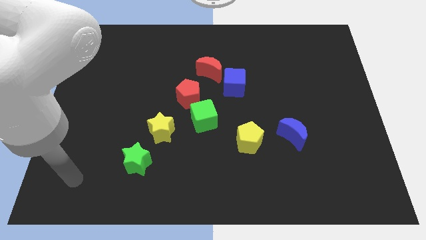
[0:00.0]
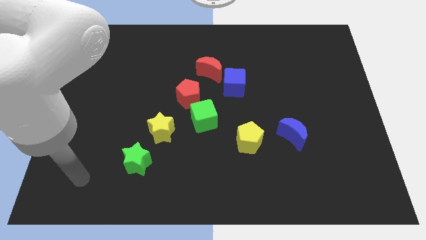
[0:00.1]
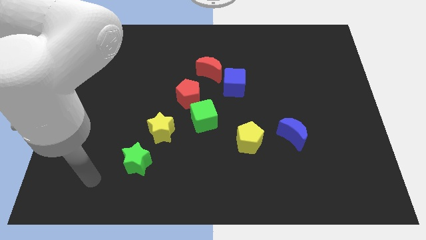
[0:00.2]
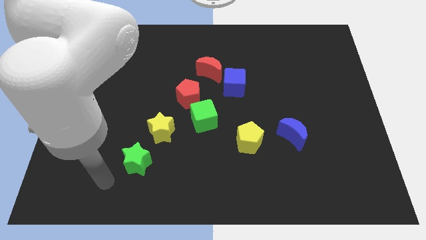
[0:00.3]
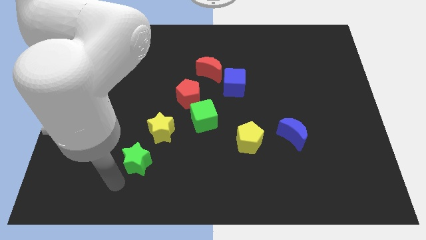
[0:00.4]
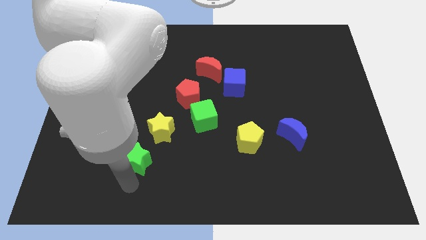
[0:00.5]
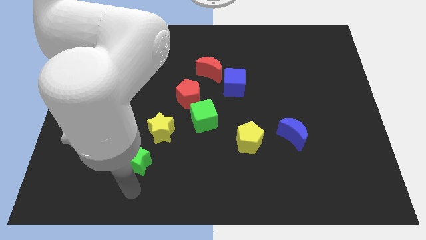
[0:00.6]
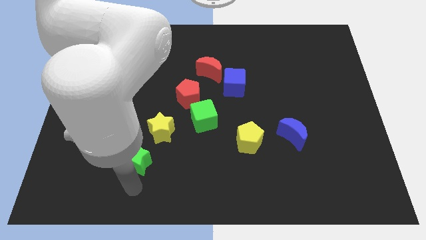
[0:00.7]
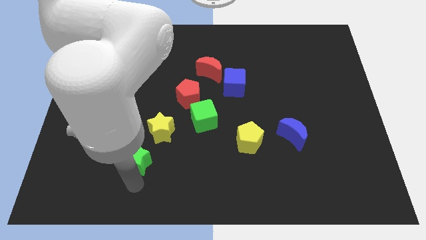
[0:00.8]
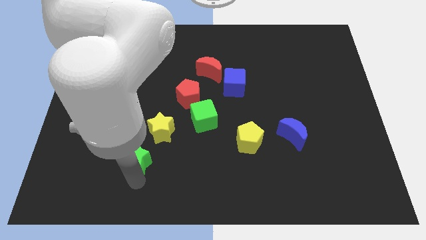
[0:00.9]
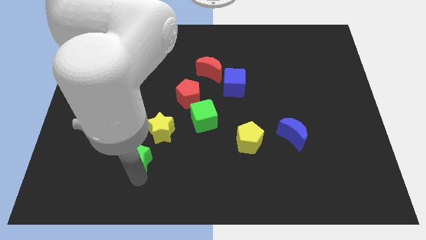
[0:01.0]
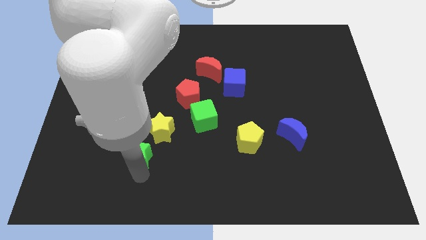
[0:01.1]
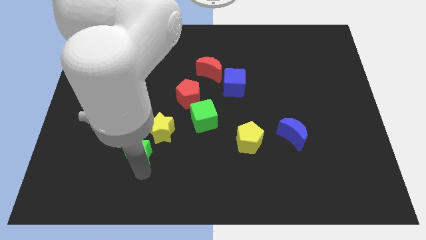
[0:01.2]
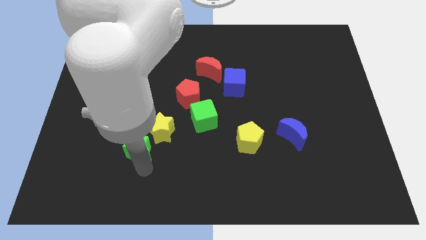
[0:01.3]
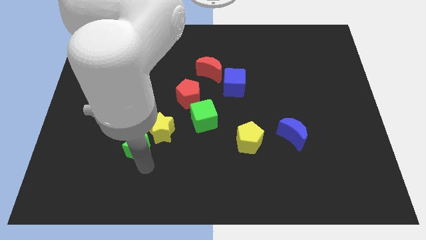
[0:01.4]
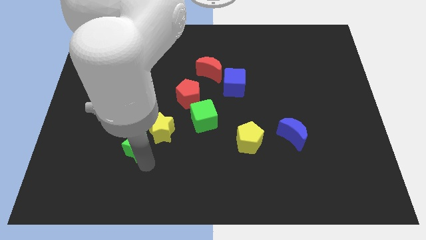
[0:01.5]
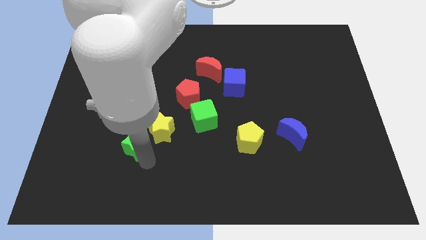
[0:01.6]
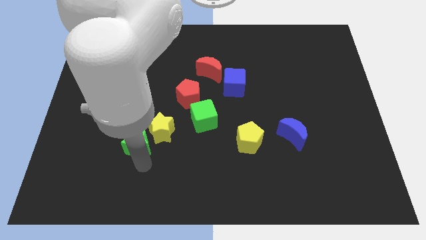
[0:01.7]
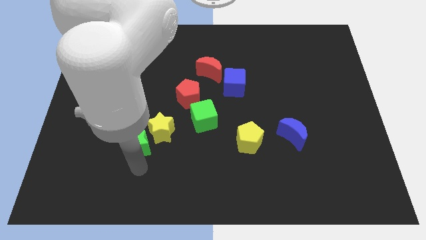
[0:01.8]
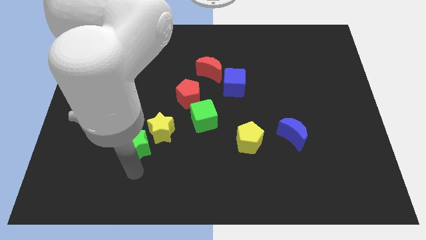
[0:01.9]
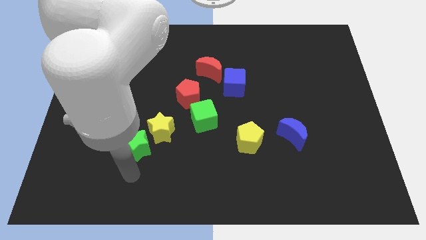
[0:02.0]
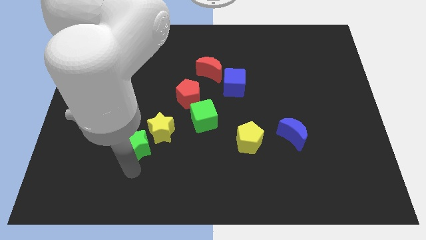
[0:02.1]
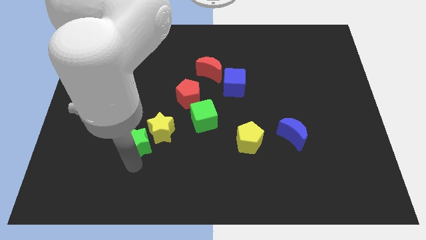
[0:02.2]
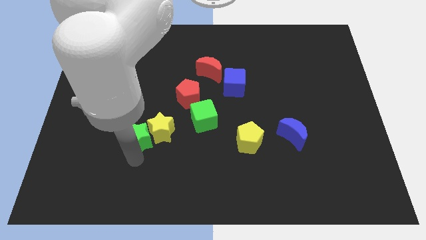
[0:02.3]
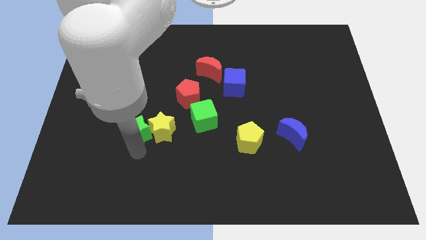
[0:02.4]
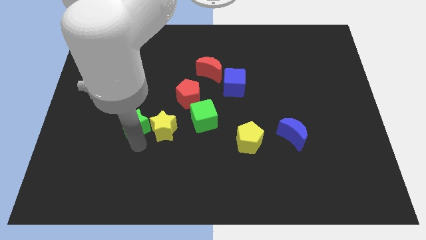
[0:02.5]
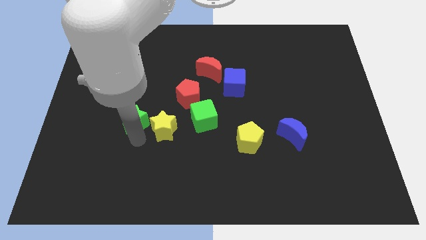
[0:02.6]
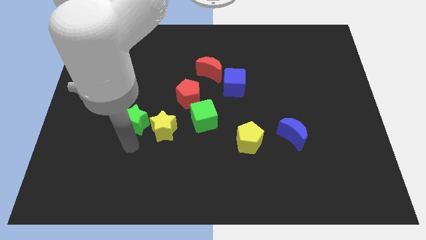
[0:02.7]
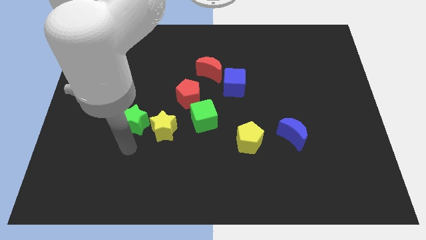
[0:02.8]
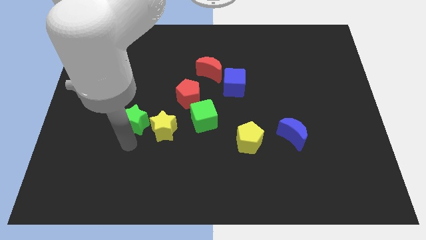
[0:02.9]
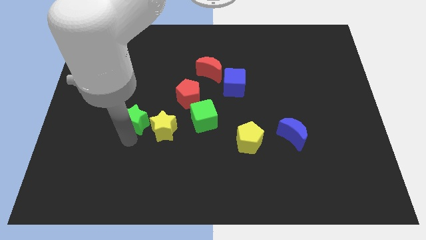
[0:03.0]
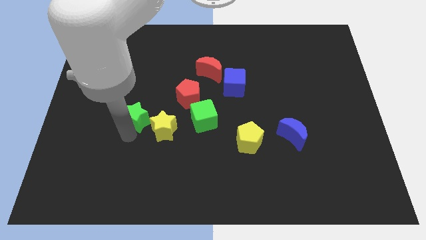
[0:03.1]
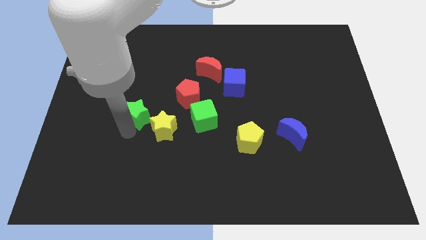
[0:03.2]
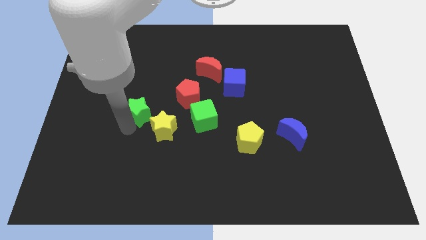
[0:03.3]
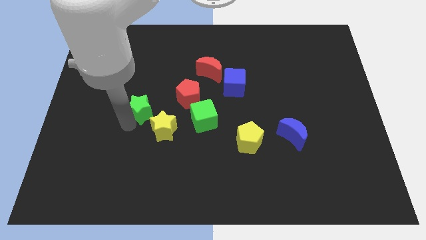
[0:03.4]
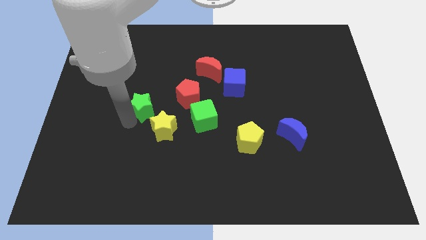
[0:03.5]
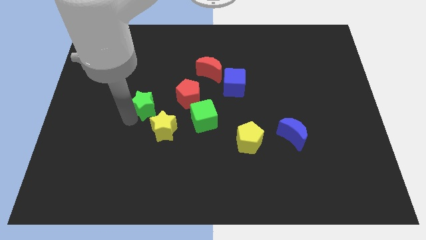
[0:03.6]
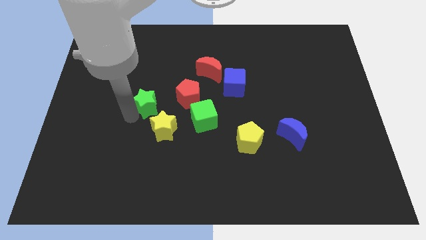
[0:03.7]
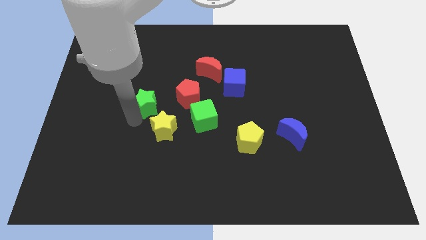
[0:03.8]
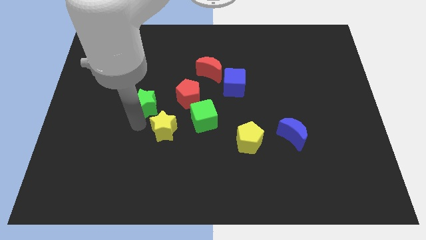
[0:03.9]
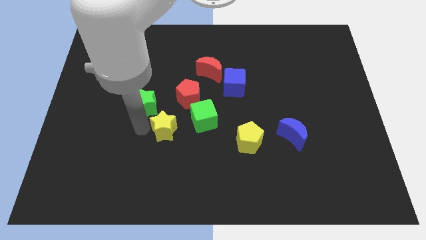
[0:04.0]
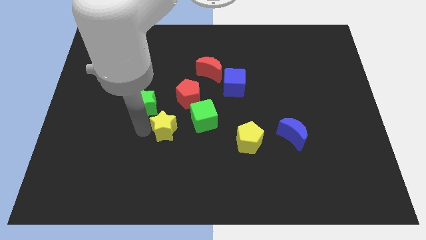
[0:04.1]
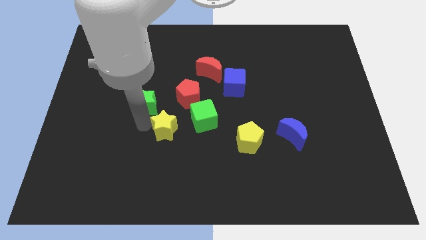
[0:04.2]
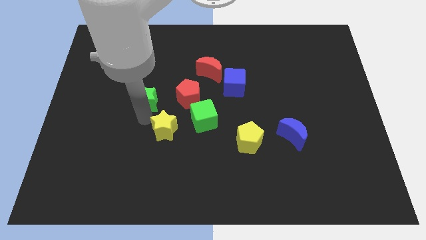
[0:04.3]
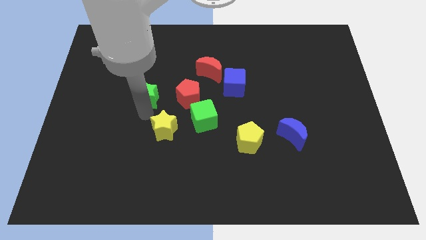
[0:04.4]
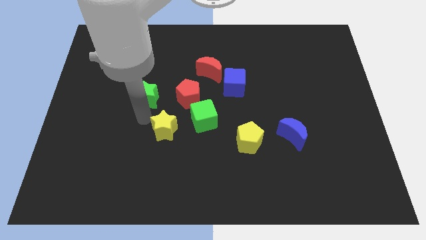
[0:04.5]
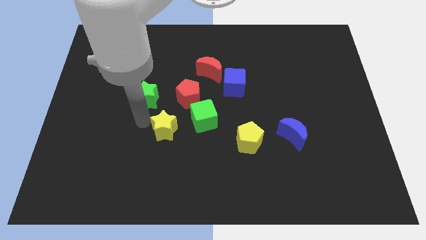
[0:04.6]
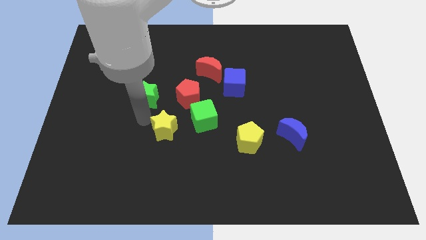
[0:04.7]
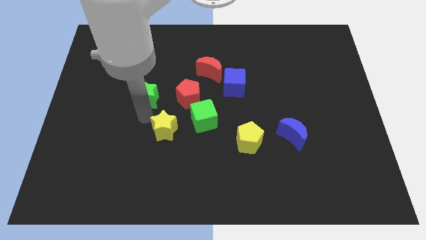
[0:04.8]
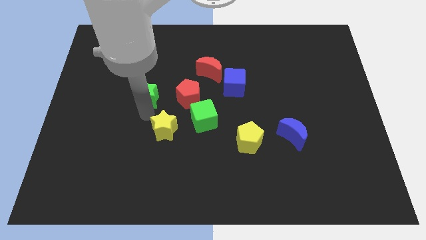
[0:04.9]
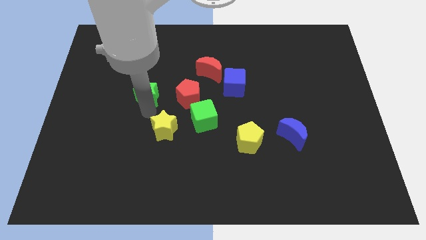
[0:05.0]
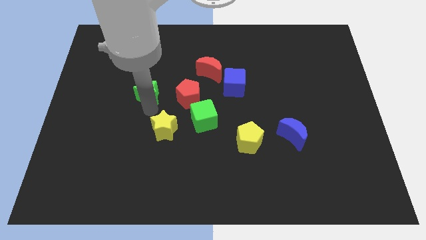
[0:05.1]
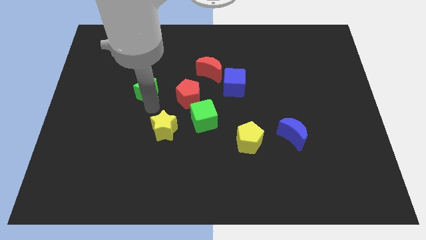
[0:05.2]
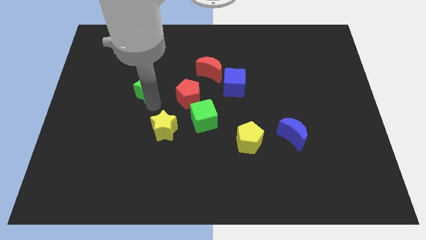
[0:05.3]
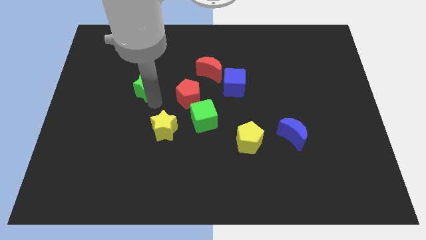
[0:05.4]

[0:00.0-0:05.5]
push the green star up

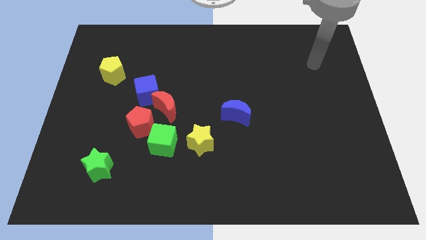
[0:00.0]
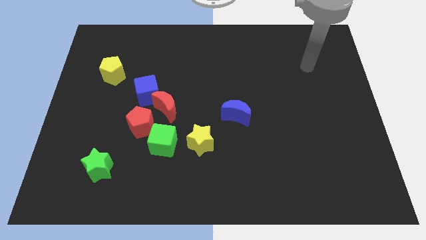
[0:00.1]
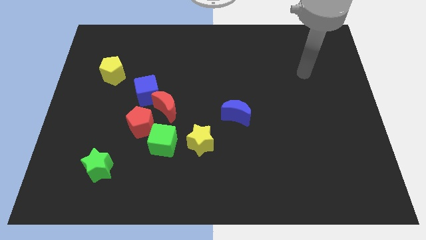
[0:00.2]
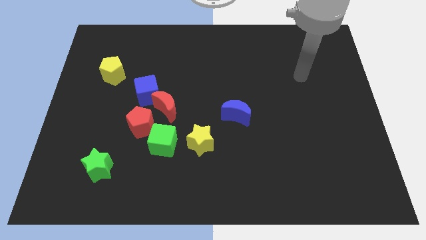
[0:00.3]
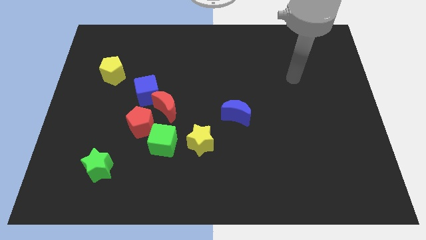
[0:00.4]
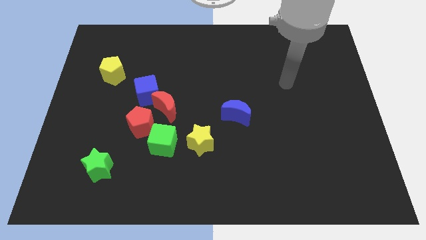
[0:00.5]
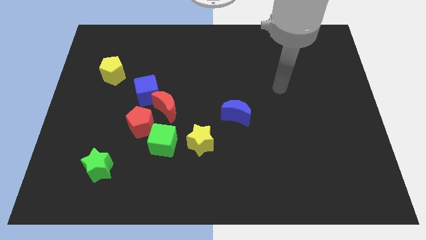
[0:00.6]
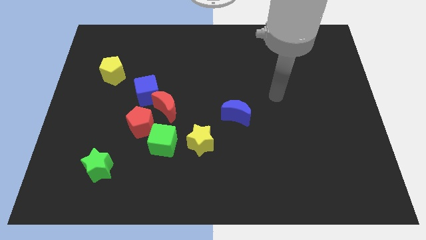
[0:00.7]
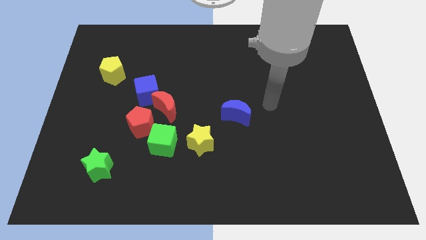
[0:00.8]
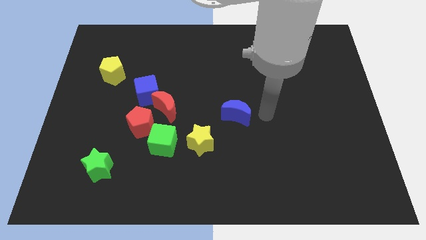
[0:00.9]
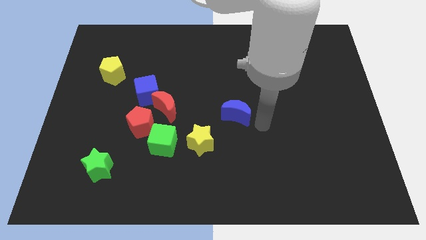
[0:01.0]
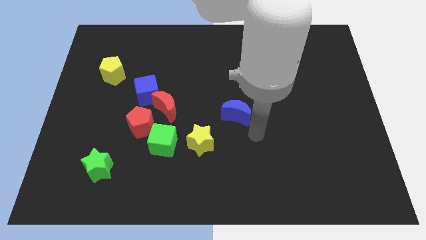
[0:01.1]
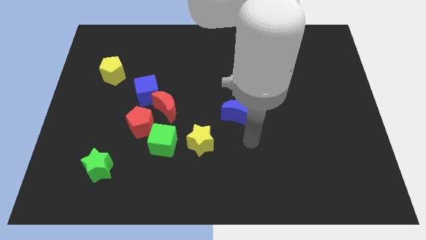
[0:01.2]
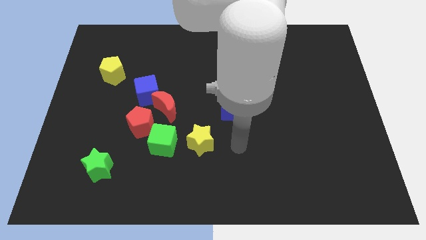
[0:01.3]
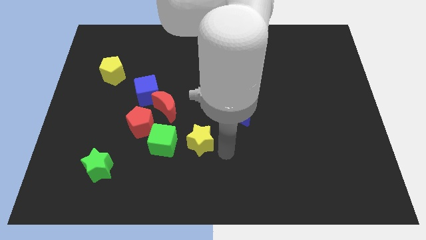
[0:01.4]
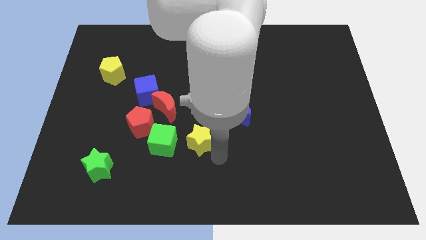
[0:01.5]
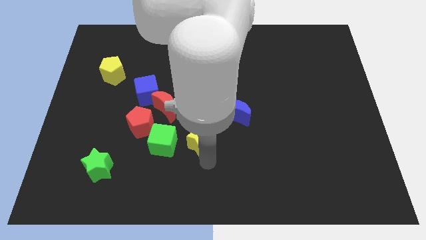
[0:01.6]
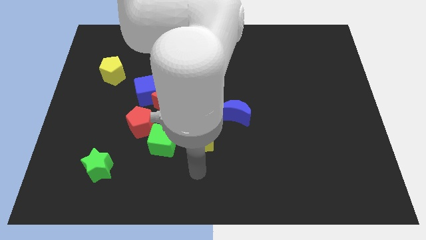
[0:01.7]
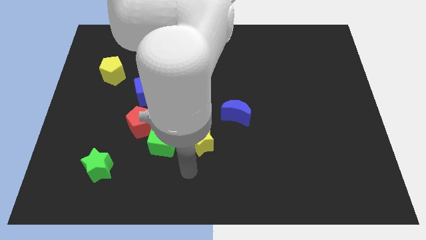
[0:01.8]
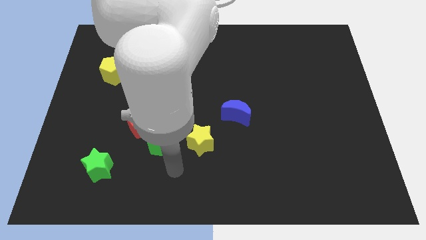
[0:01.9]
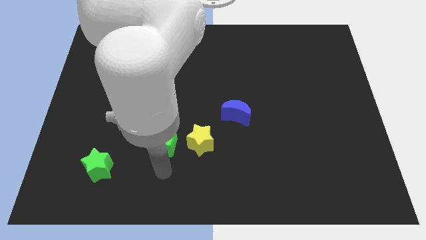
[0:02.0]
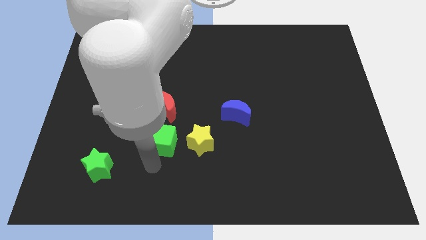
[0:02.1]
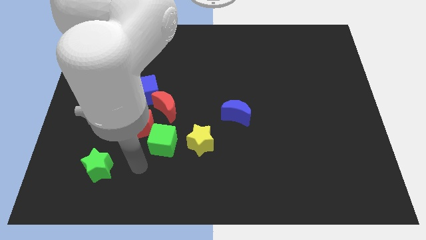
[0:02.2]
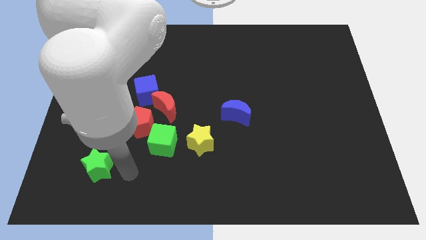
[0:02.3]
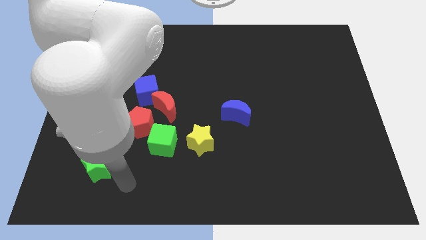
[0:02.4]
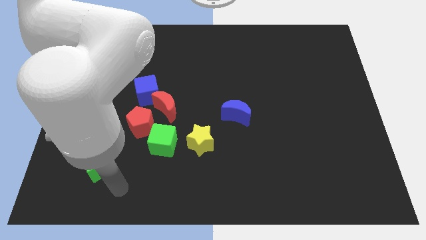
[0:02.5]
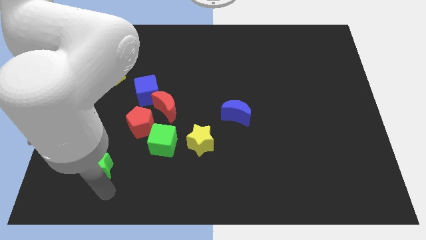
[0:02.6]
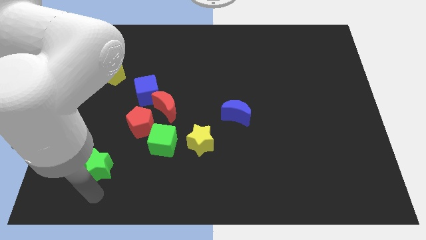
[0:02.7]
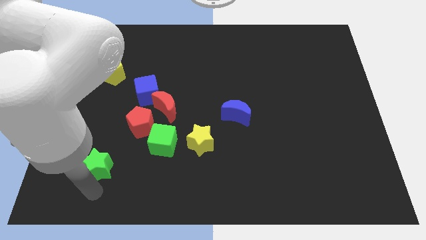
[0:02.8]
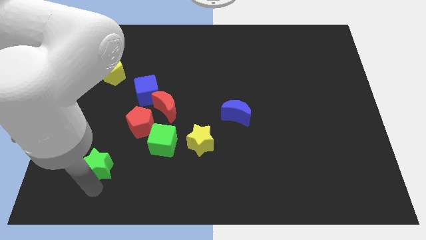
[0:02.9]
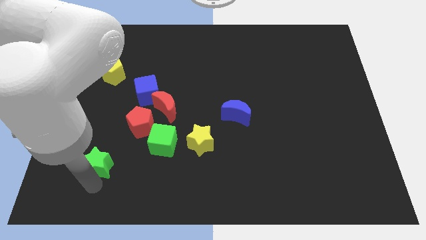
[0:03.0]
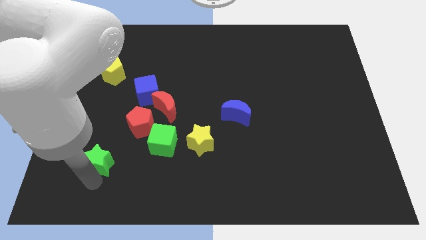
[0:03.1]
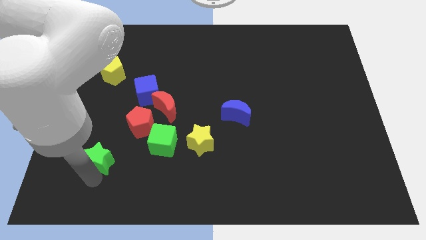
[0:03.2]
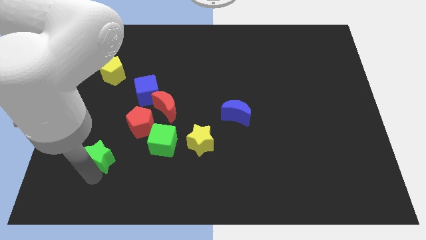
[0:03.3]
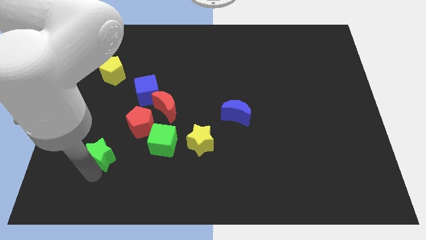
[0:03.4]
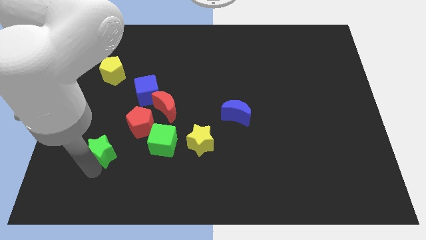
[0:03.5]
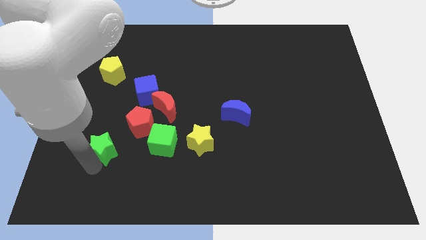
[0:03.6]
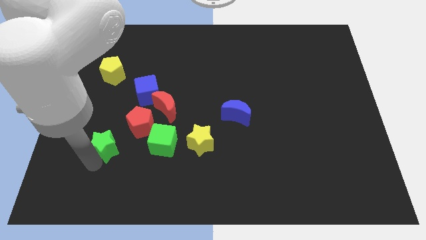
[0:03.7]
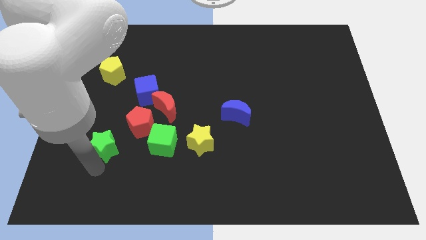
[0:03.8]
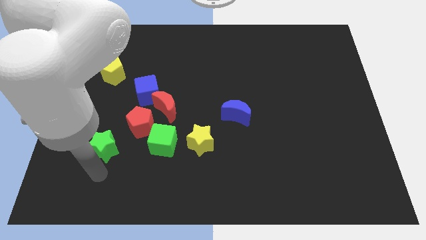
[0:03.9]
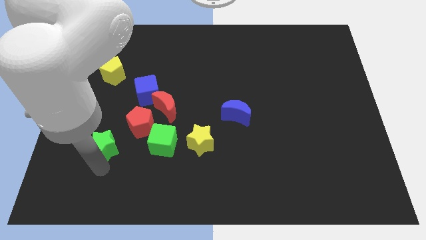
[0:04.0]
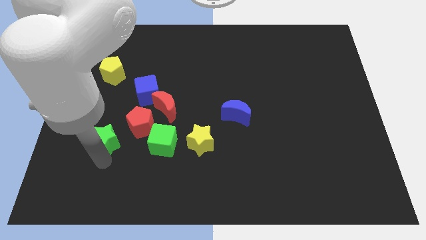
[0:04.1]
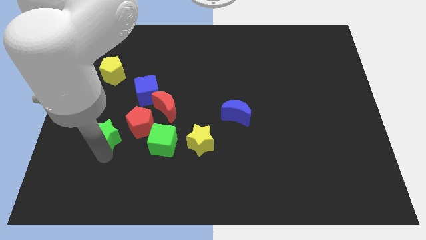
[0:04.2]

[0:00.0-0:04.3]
push the green star a little bit up
